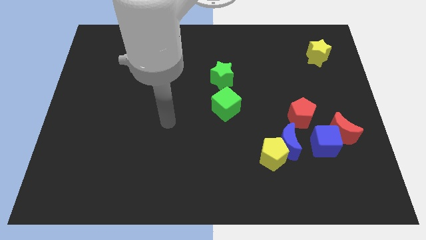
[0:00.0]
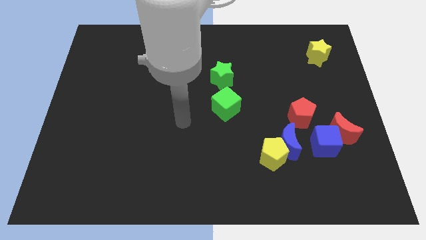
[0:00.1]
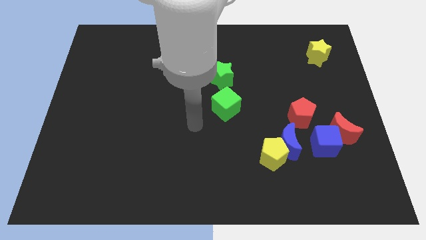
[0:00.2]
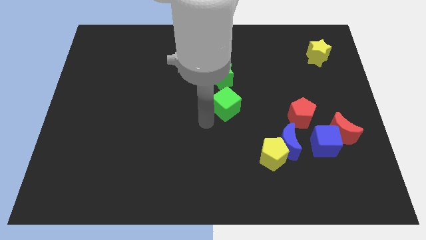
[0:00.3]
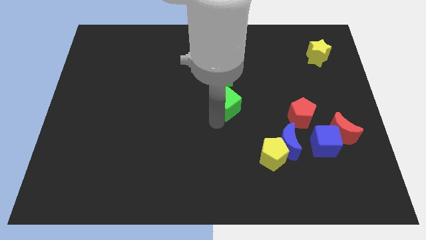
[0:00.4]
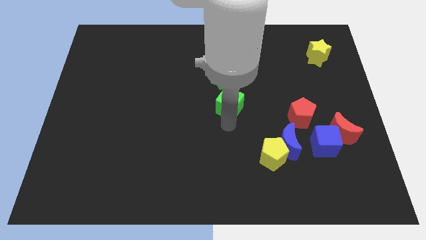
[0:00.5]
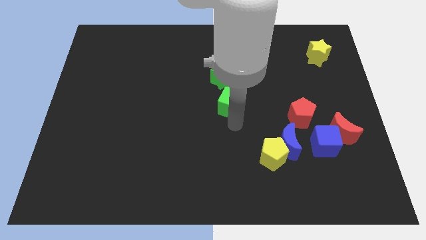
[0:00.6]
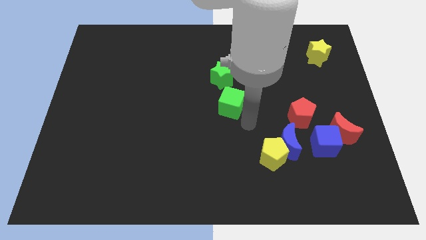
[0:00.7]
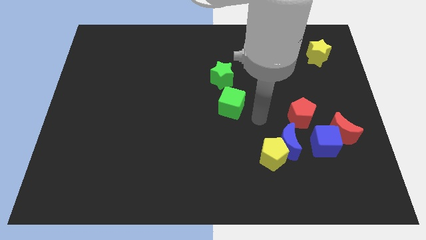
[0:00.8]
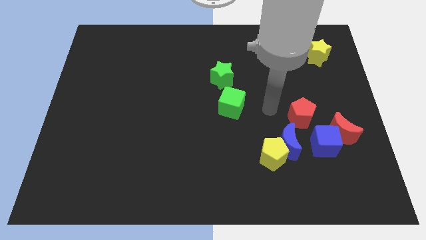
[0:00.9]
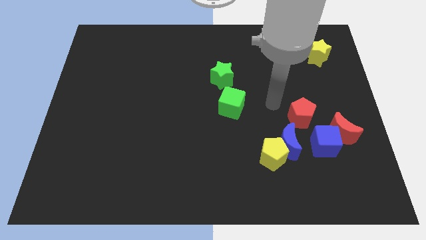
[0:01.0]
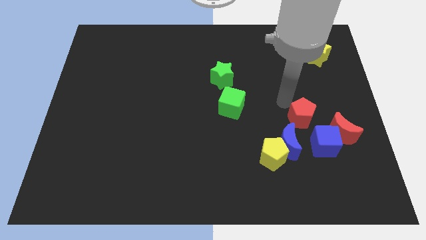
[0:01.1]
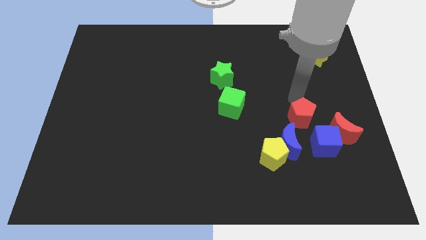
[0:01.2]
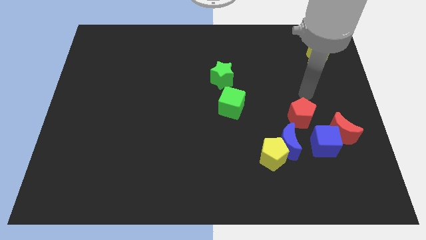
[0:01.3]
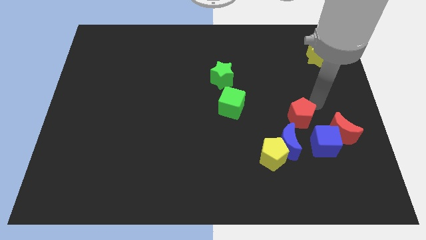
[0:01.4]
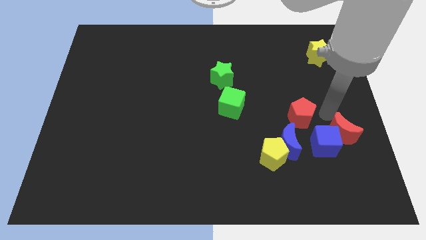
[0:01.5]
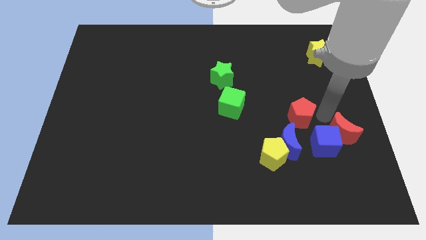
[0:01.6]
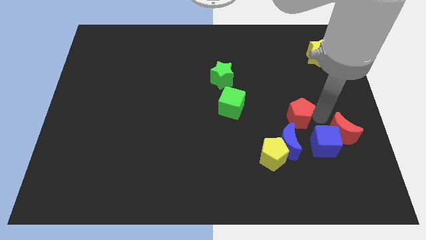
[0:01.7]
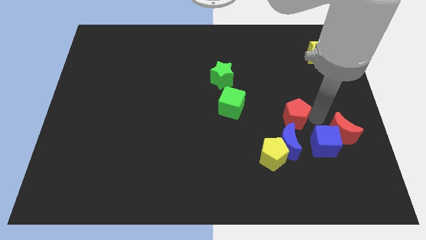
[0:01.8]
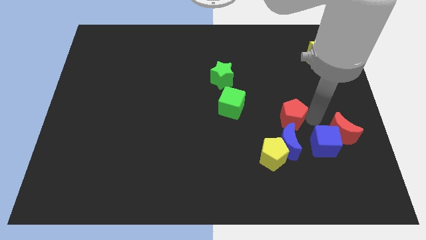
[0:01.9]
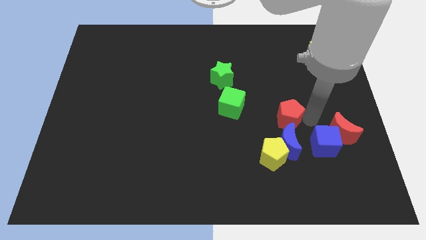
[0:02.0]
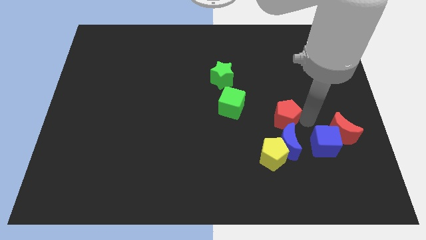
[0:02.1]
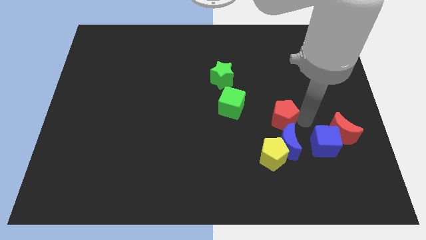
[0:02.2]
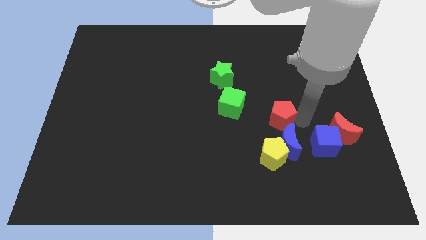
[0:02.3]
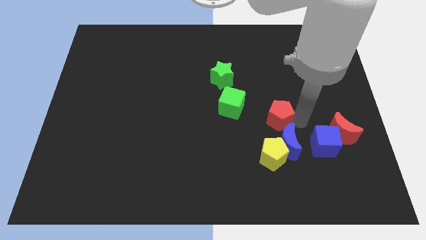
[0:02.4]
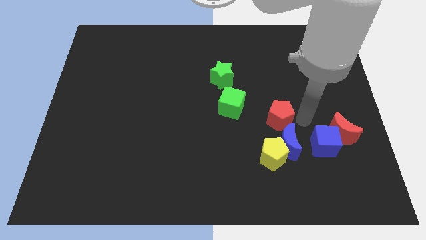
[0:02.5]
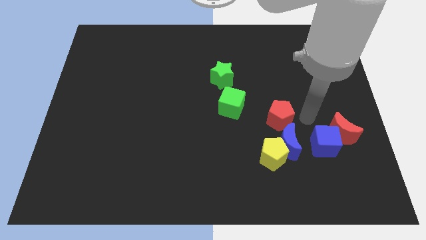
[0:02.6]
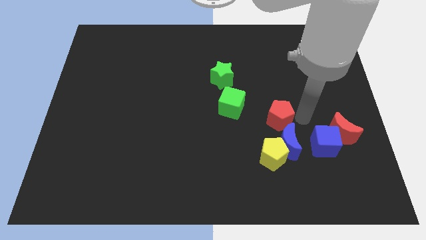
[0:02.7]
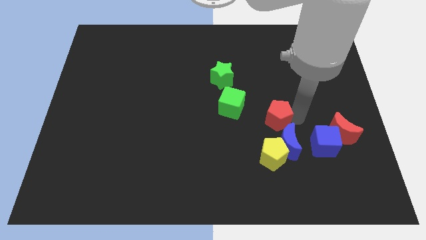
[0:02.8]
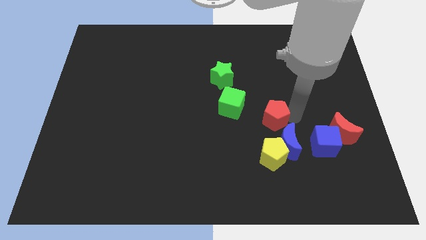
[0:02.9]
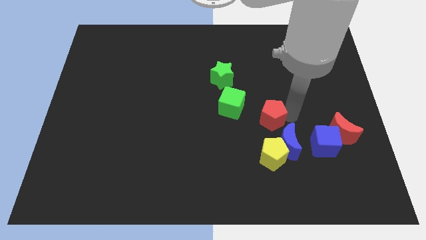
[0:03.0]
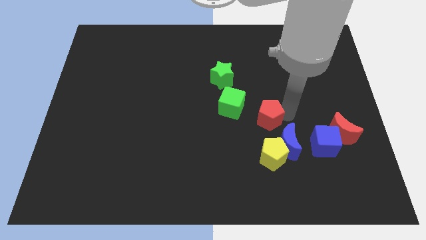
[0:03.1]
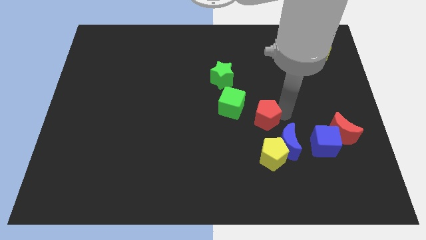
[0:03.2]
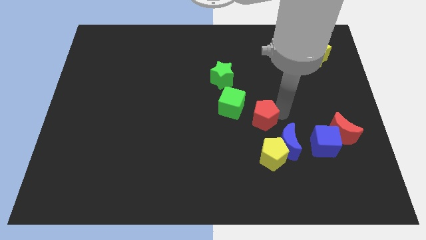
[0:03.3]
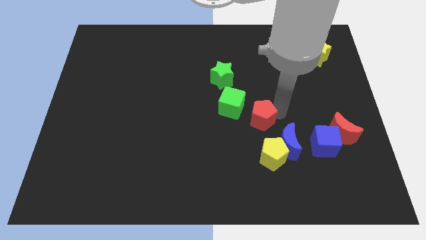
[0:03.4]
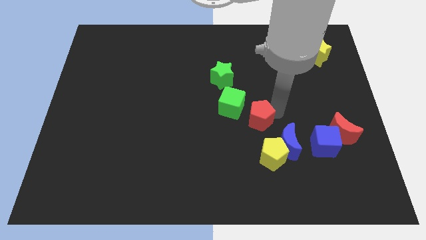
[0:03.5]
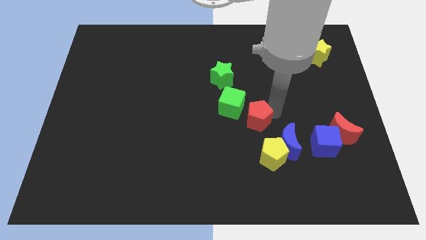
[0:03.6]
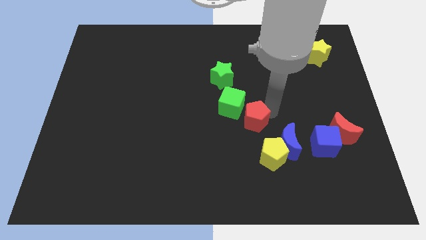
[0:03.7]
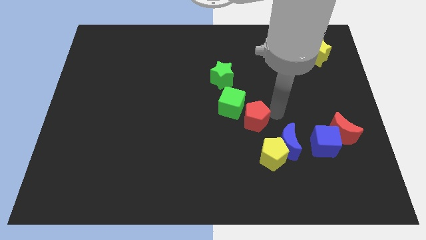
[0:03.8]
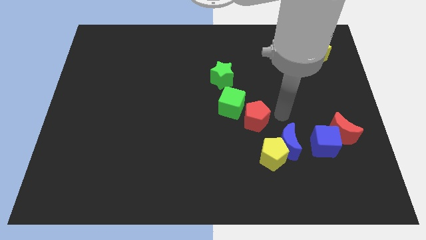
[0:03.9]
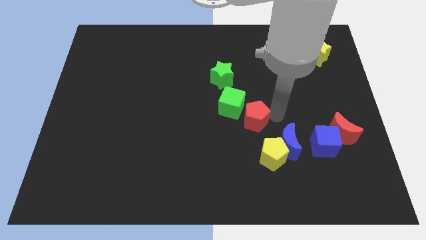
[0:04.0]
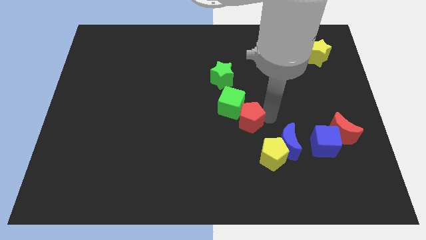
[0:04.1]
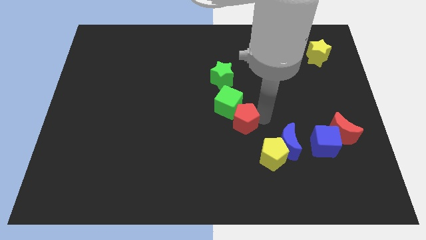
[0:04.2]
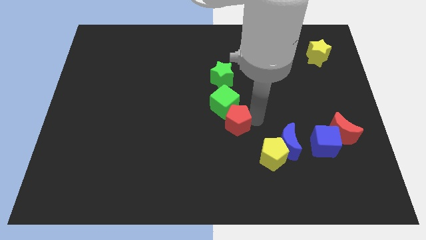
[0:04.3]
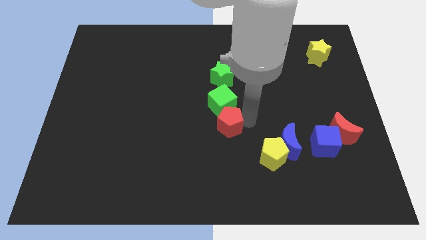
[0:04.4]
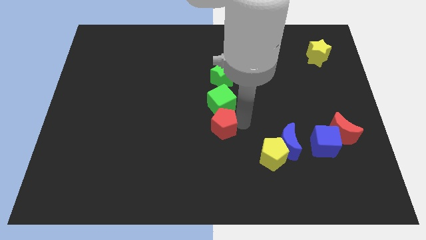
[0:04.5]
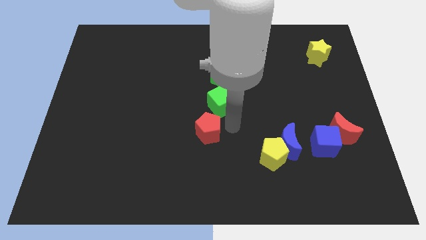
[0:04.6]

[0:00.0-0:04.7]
move the red pentagon left

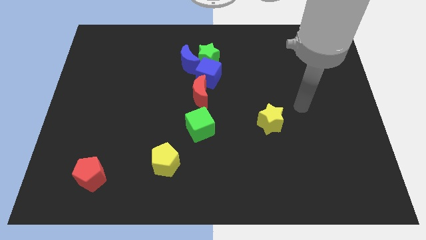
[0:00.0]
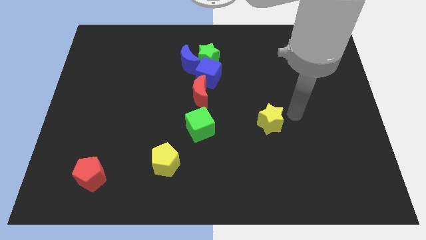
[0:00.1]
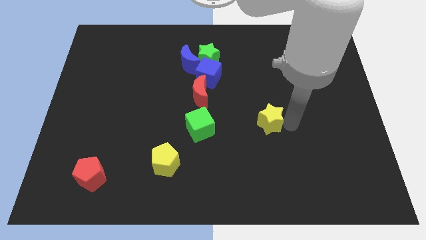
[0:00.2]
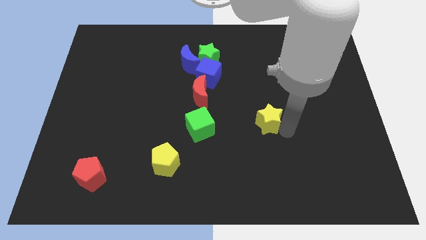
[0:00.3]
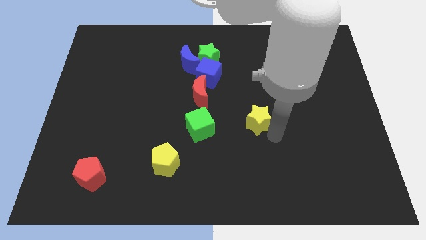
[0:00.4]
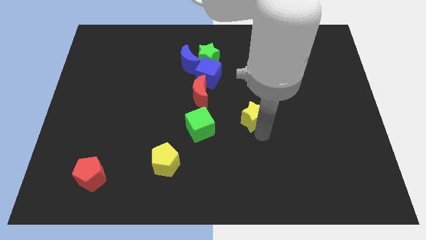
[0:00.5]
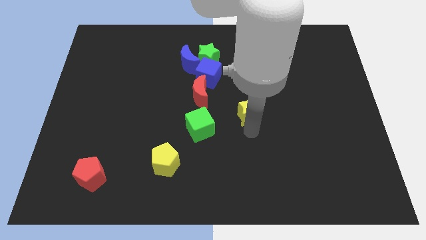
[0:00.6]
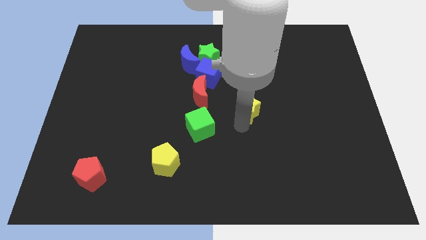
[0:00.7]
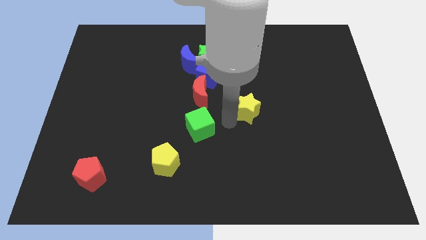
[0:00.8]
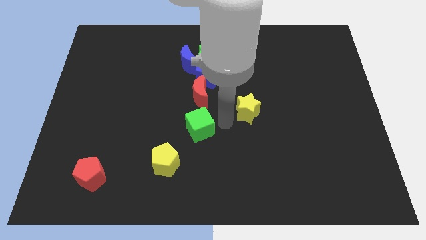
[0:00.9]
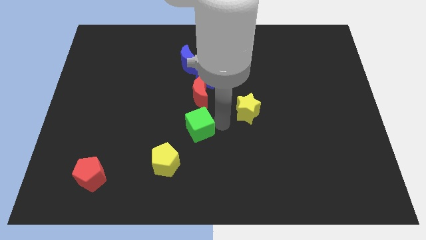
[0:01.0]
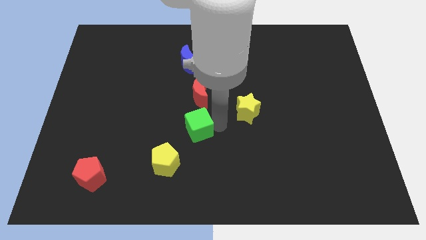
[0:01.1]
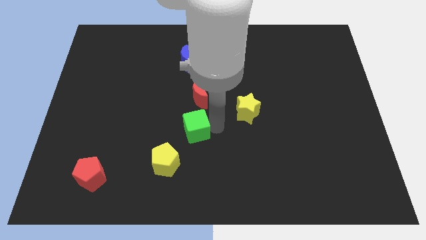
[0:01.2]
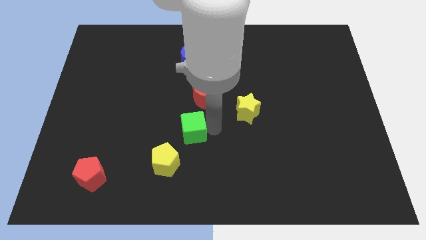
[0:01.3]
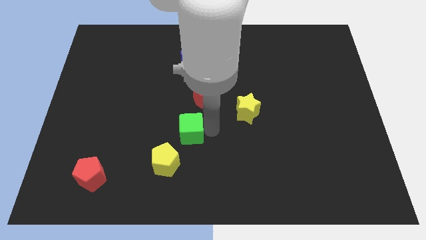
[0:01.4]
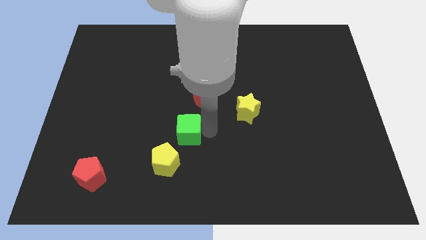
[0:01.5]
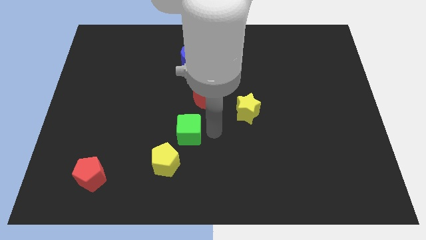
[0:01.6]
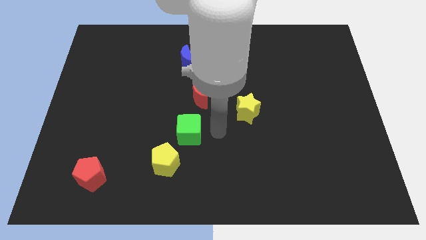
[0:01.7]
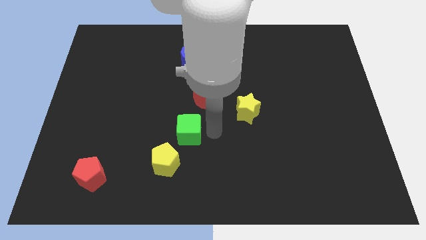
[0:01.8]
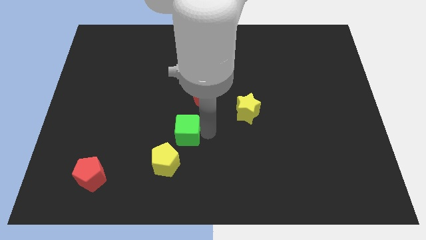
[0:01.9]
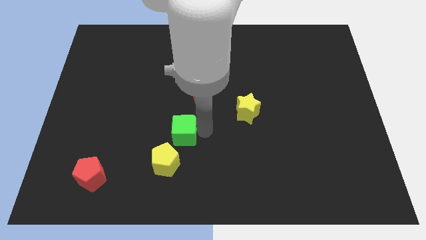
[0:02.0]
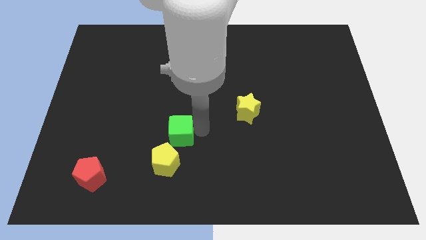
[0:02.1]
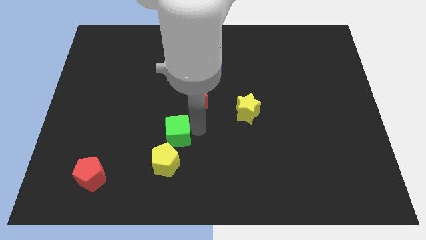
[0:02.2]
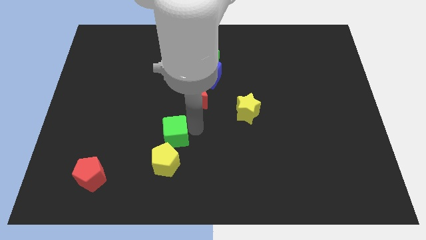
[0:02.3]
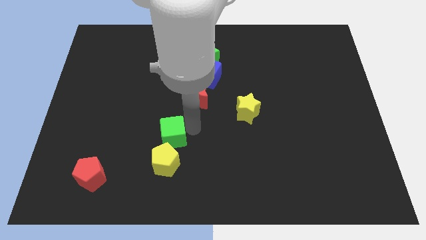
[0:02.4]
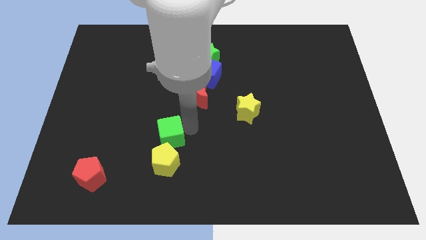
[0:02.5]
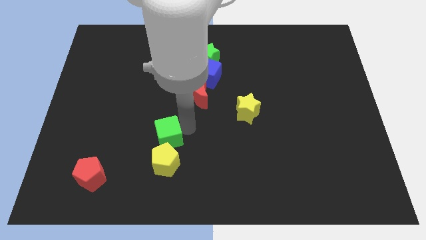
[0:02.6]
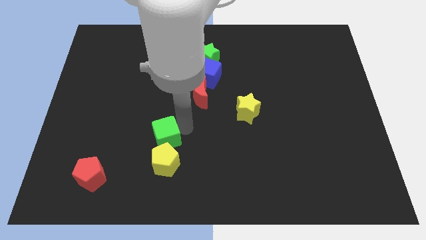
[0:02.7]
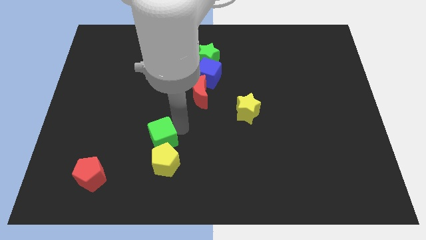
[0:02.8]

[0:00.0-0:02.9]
push the green cube down and then to the left slightly

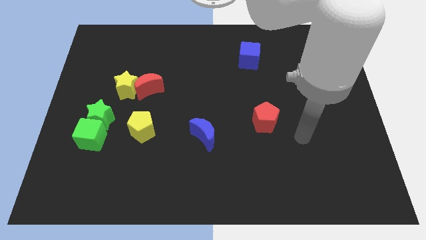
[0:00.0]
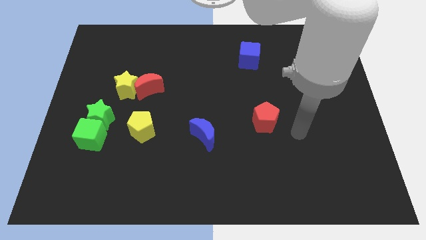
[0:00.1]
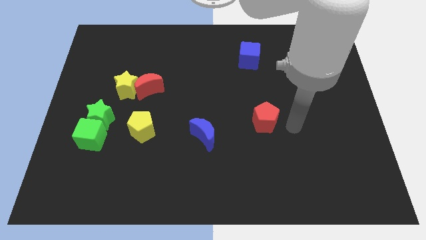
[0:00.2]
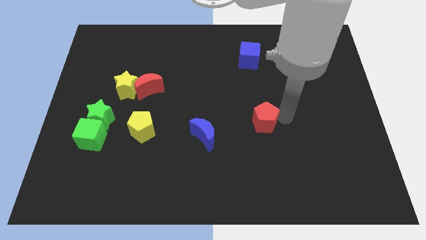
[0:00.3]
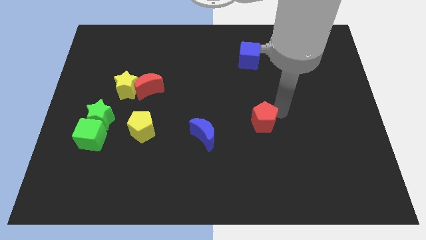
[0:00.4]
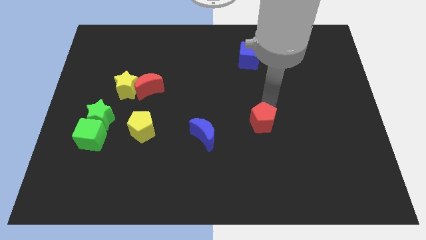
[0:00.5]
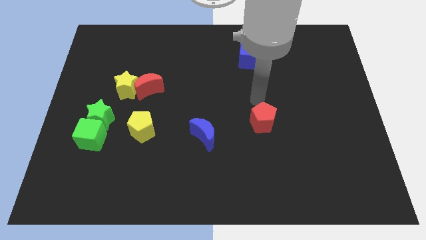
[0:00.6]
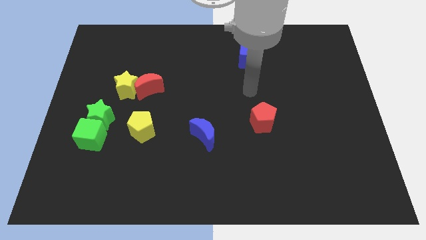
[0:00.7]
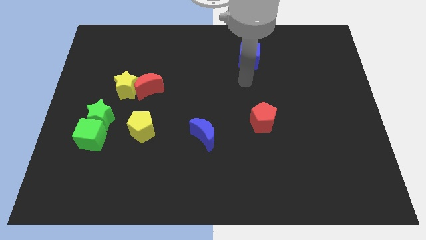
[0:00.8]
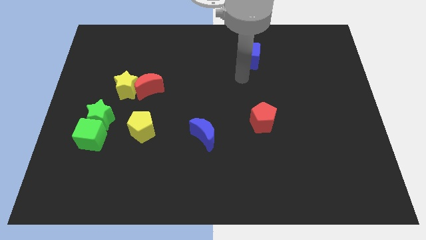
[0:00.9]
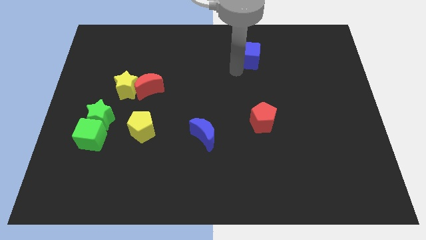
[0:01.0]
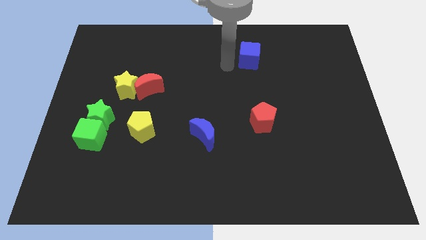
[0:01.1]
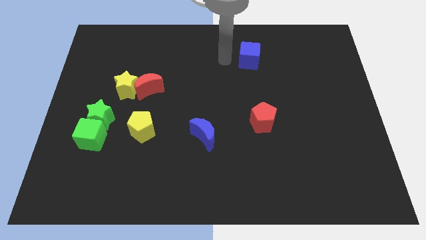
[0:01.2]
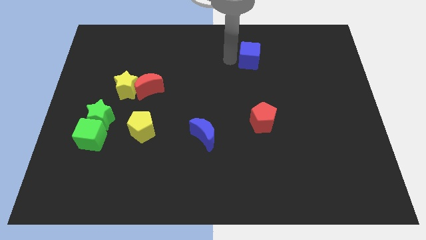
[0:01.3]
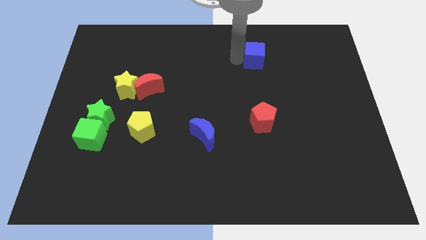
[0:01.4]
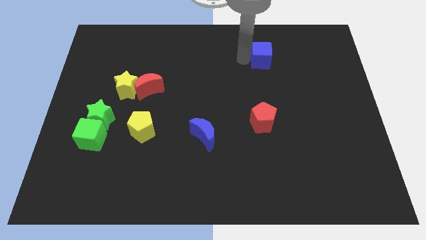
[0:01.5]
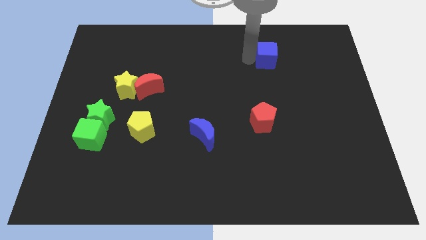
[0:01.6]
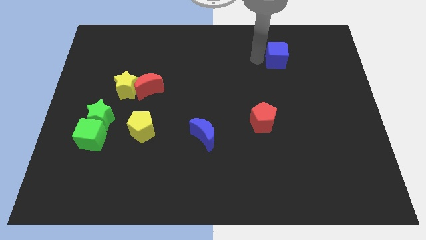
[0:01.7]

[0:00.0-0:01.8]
move the blue cube right a little bit
